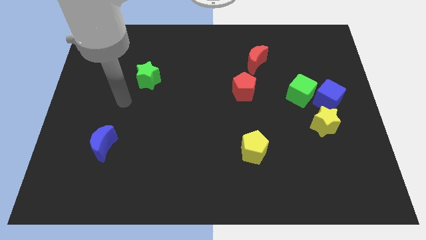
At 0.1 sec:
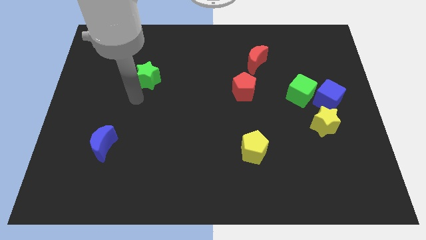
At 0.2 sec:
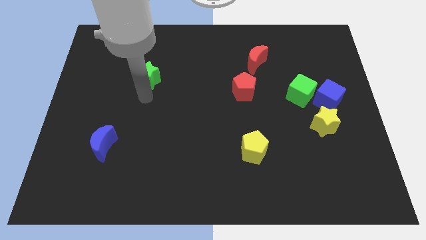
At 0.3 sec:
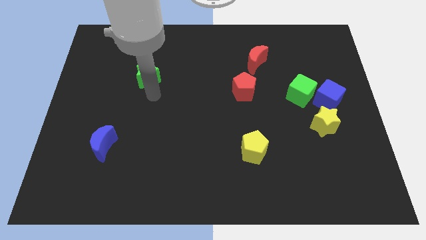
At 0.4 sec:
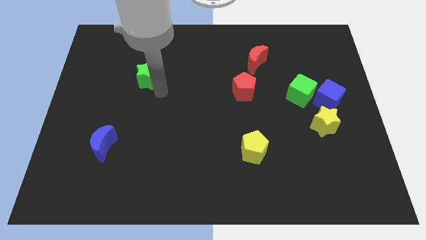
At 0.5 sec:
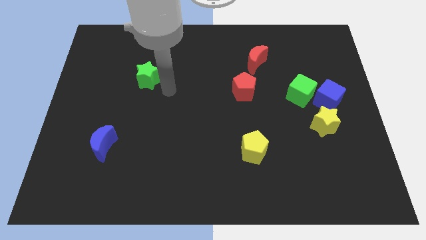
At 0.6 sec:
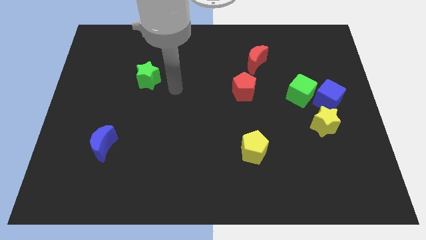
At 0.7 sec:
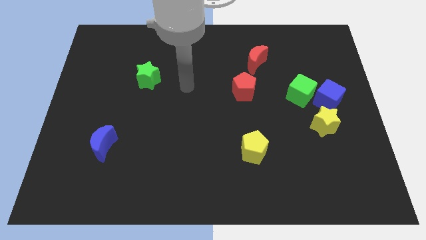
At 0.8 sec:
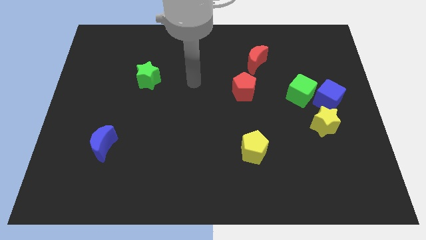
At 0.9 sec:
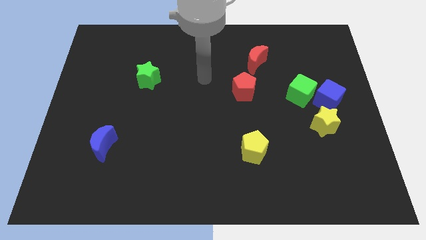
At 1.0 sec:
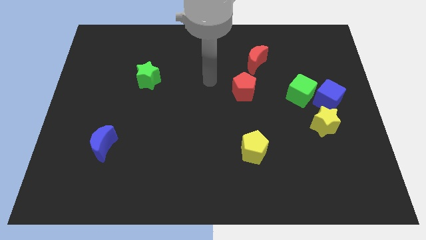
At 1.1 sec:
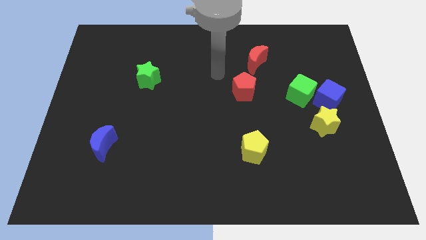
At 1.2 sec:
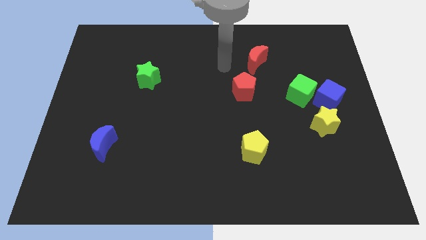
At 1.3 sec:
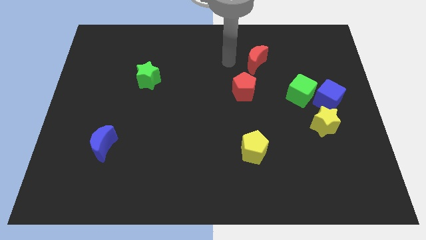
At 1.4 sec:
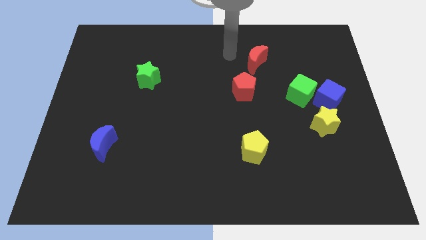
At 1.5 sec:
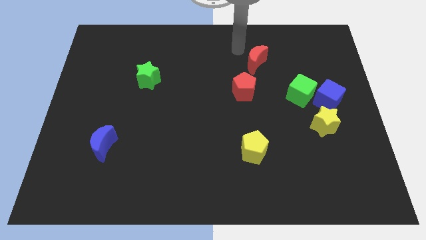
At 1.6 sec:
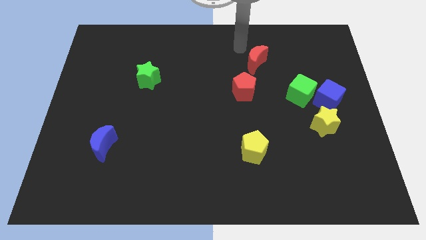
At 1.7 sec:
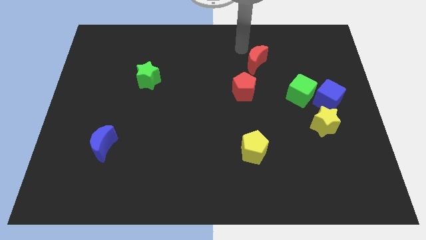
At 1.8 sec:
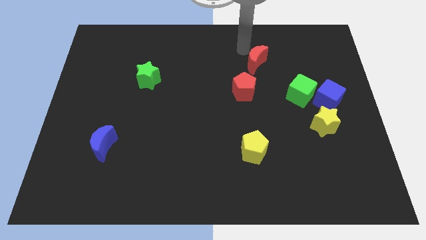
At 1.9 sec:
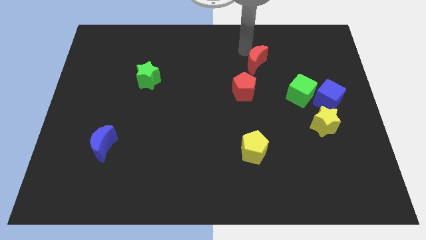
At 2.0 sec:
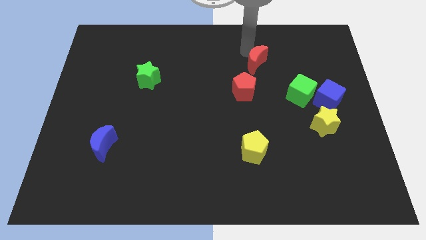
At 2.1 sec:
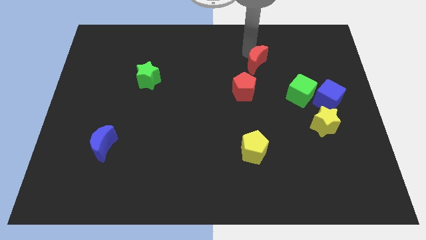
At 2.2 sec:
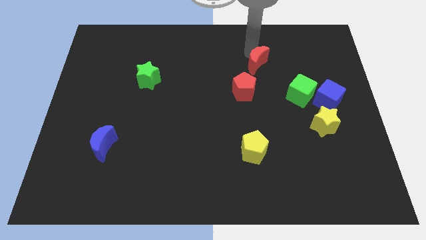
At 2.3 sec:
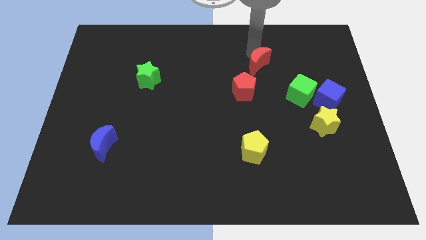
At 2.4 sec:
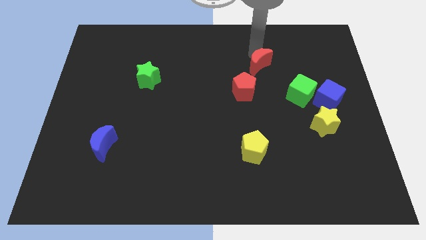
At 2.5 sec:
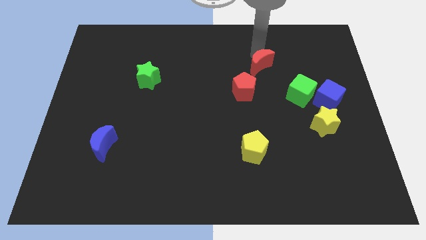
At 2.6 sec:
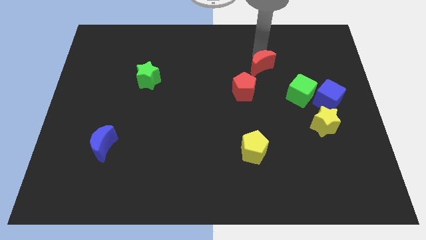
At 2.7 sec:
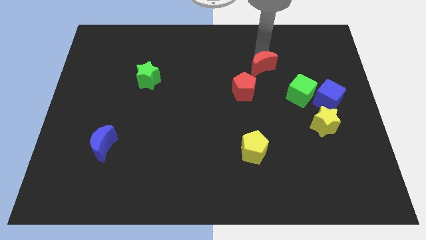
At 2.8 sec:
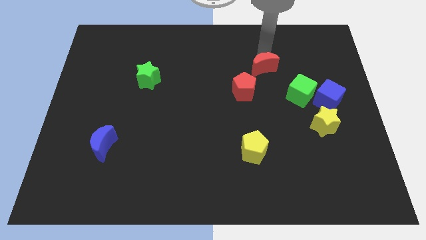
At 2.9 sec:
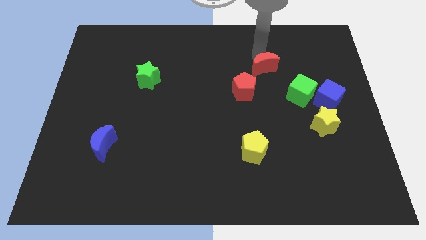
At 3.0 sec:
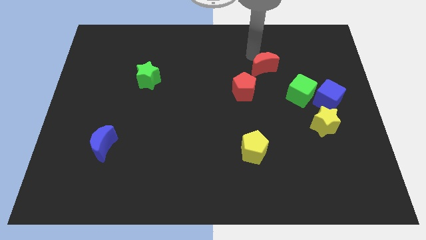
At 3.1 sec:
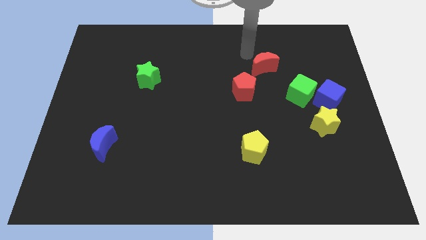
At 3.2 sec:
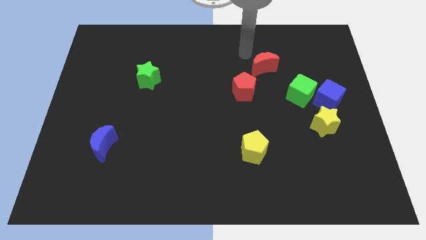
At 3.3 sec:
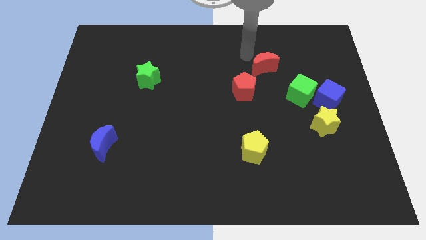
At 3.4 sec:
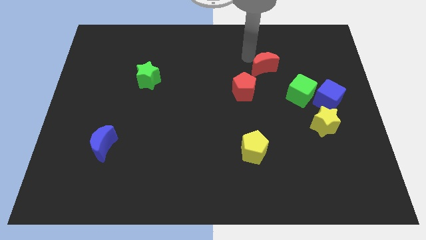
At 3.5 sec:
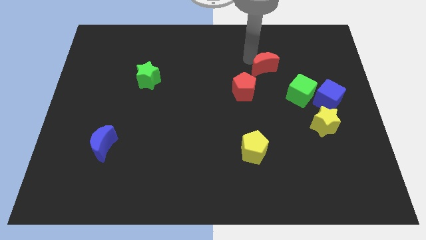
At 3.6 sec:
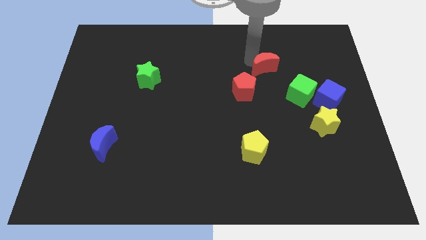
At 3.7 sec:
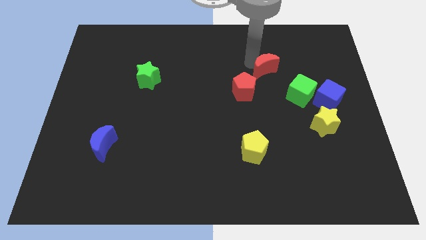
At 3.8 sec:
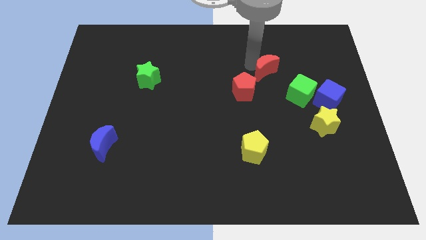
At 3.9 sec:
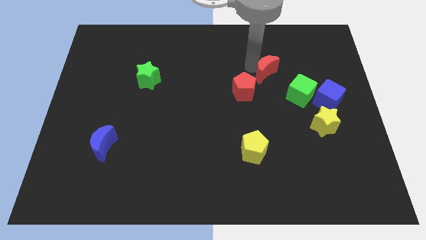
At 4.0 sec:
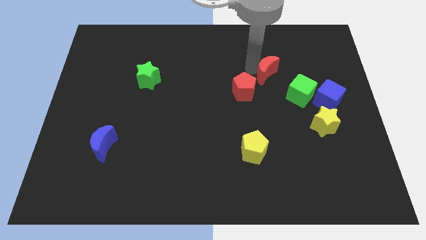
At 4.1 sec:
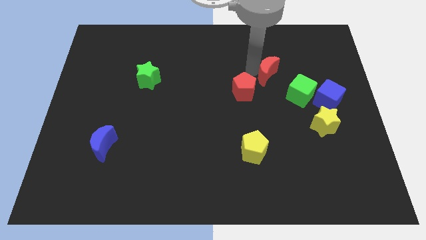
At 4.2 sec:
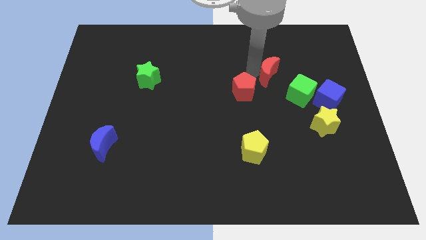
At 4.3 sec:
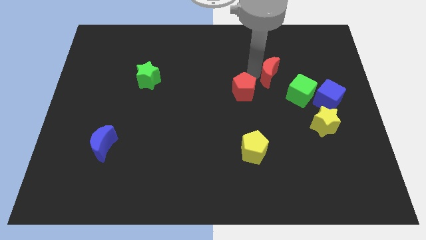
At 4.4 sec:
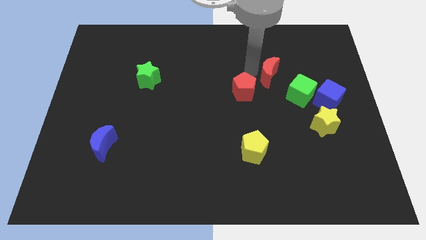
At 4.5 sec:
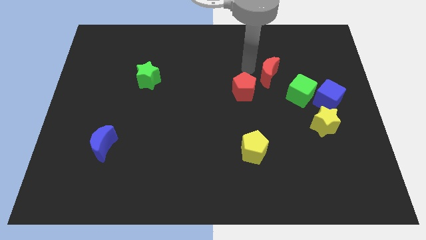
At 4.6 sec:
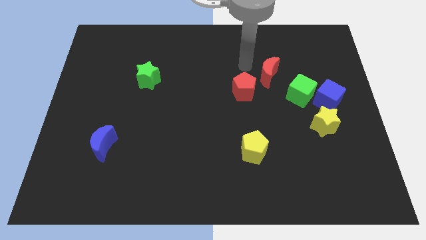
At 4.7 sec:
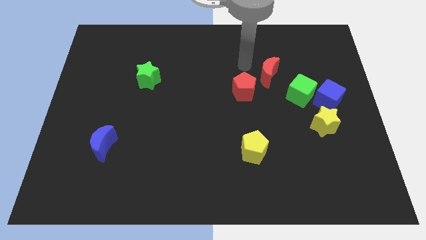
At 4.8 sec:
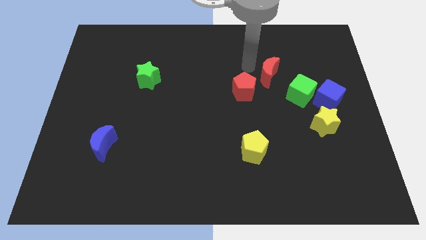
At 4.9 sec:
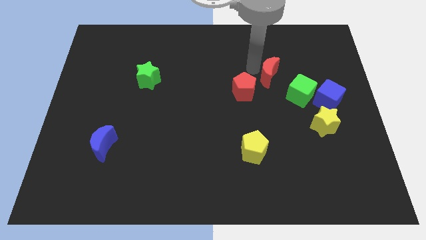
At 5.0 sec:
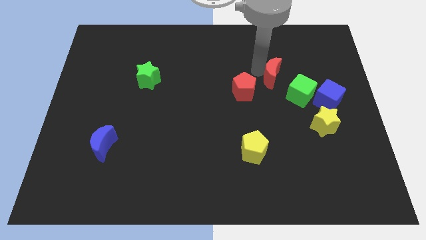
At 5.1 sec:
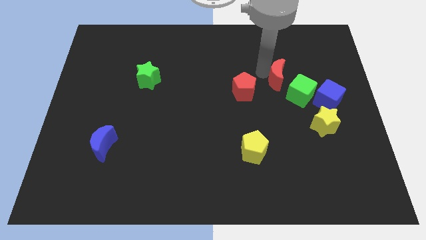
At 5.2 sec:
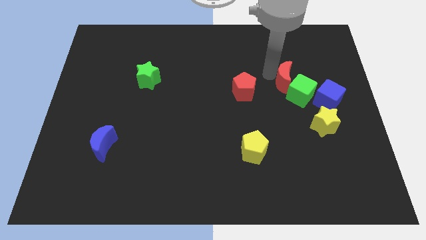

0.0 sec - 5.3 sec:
slide the red moon towards the green cube

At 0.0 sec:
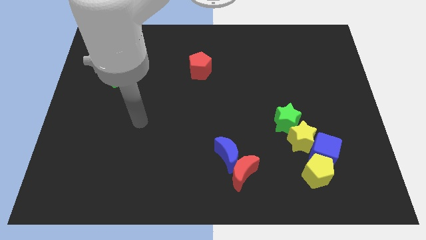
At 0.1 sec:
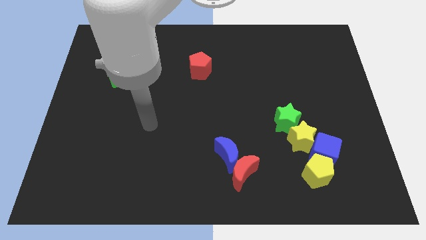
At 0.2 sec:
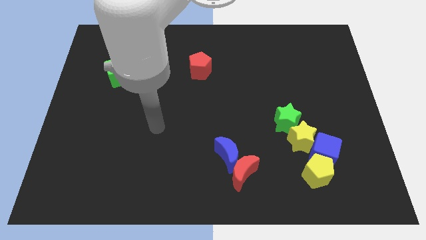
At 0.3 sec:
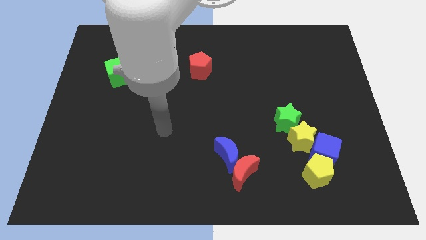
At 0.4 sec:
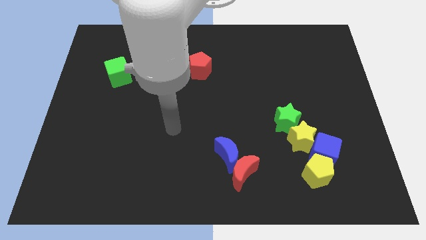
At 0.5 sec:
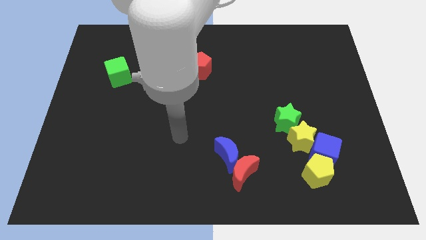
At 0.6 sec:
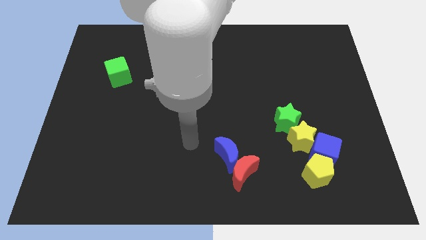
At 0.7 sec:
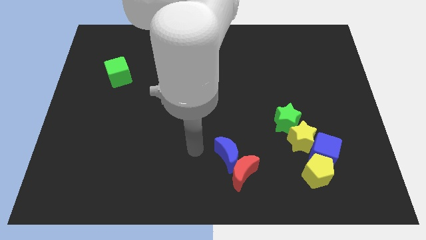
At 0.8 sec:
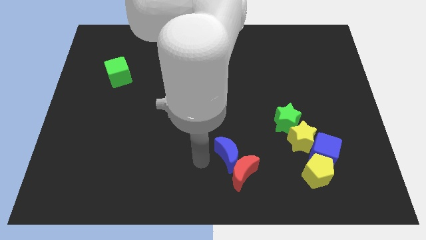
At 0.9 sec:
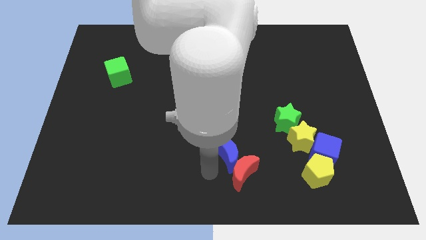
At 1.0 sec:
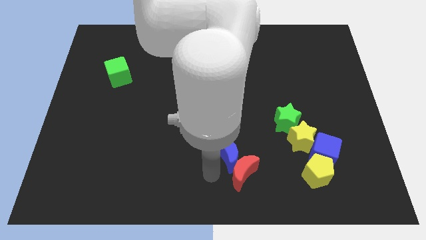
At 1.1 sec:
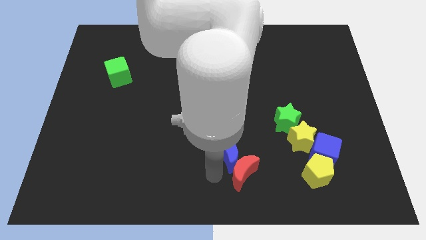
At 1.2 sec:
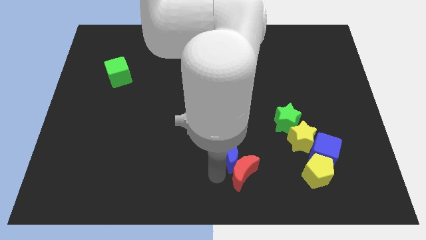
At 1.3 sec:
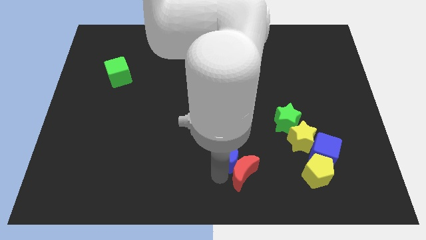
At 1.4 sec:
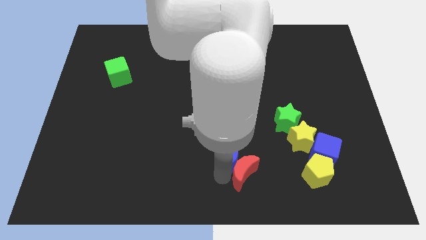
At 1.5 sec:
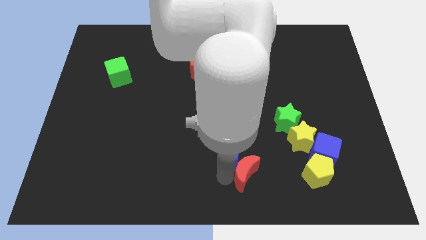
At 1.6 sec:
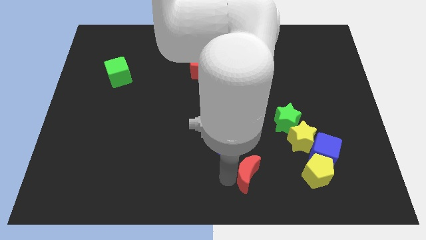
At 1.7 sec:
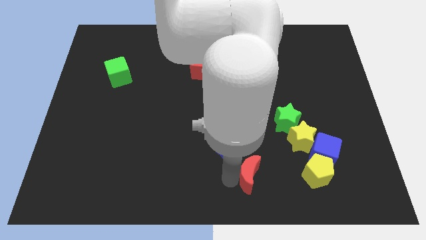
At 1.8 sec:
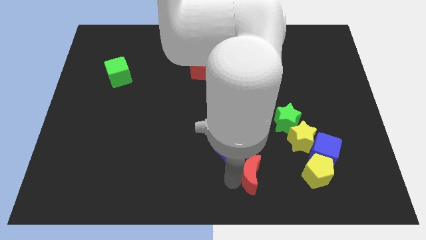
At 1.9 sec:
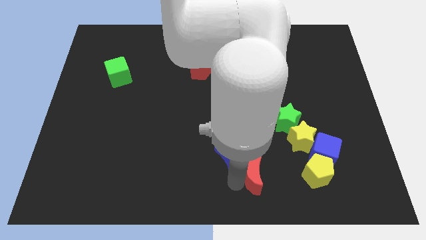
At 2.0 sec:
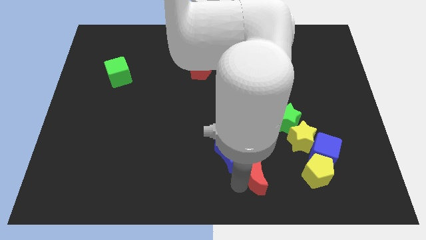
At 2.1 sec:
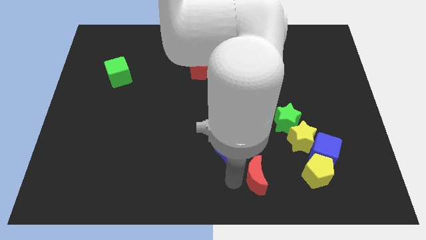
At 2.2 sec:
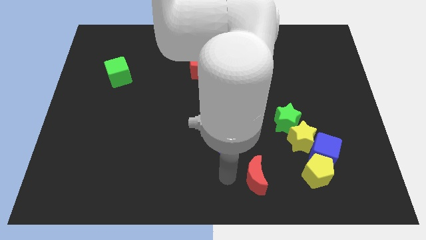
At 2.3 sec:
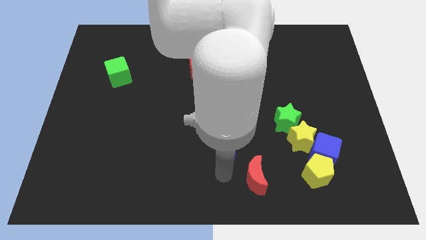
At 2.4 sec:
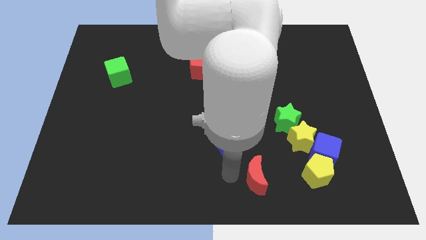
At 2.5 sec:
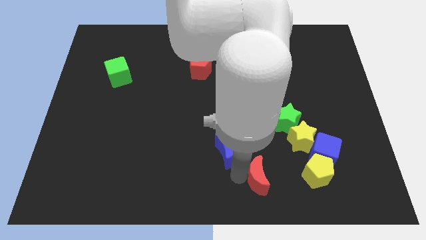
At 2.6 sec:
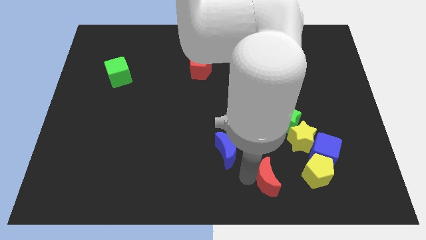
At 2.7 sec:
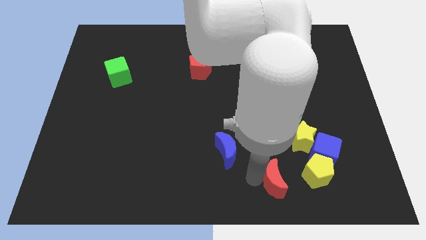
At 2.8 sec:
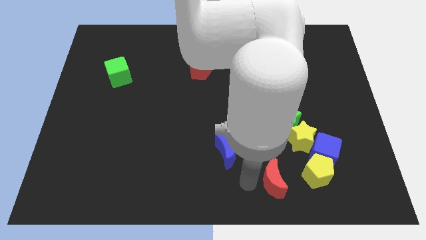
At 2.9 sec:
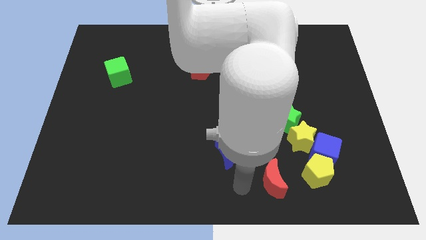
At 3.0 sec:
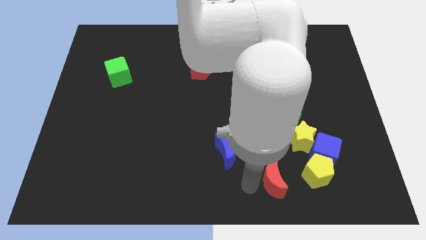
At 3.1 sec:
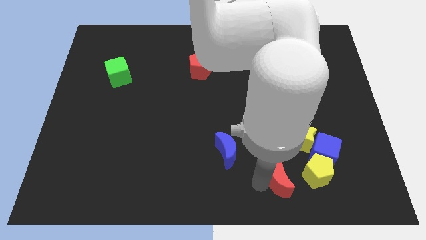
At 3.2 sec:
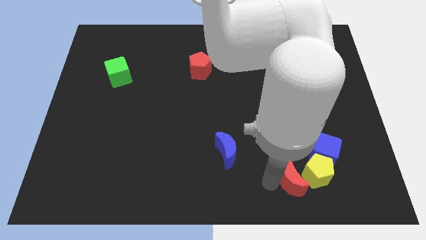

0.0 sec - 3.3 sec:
slide the red moon to the yellow pentagon
